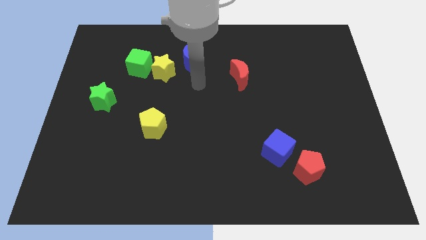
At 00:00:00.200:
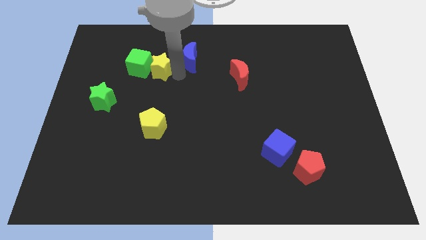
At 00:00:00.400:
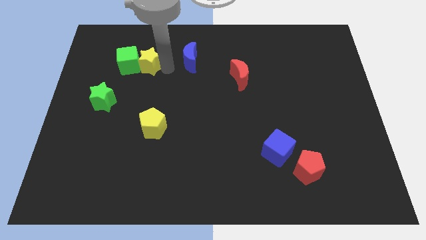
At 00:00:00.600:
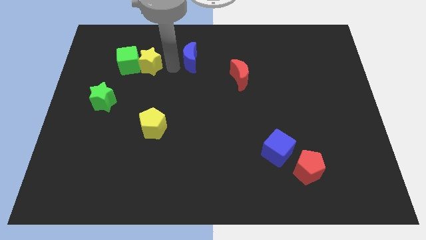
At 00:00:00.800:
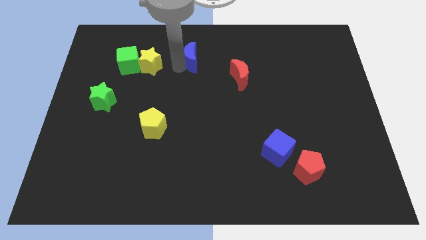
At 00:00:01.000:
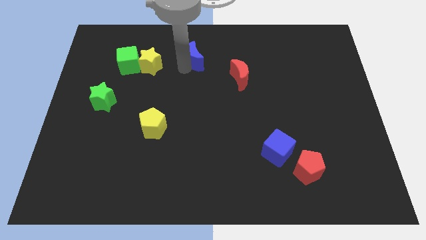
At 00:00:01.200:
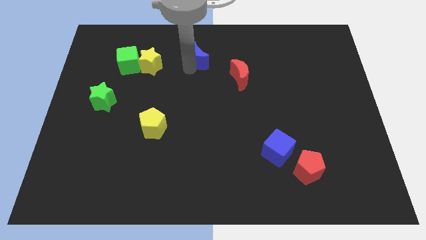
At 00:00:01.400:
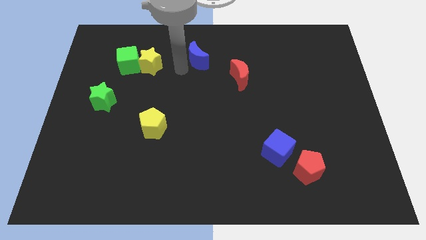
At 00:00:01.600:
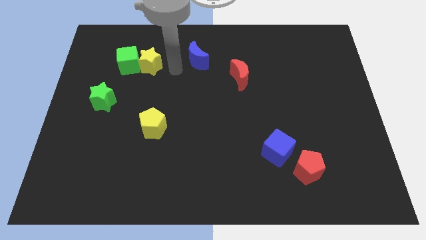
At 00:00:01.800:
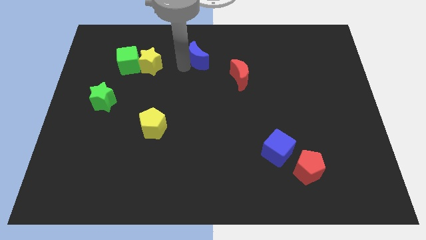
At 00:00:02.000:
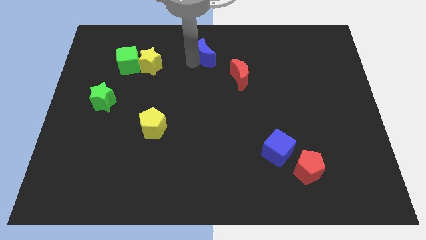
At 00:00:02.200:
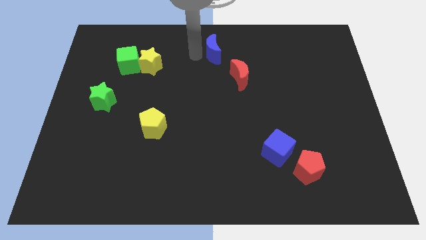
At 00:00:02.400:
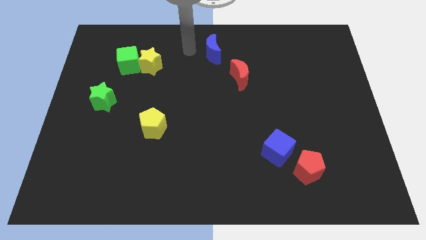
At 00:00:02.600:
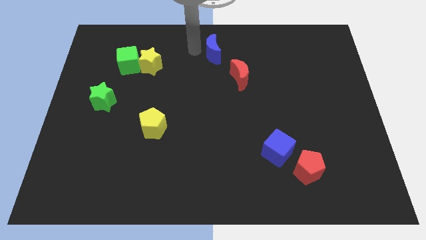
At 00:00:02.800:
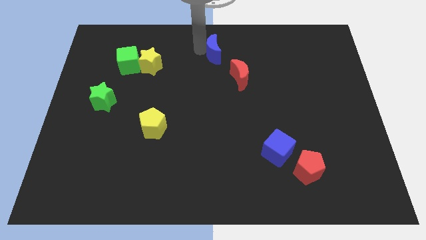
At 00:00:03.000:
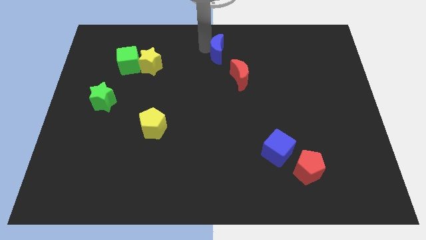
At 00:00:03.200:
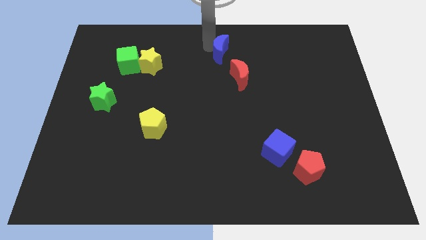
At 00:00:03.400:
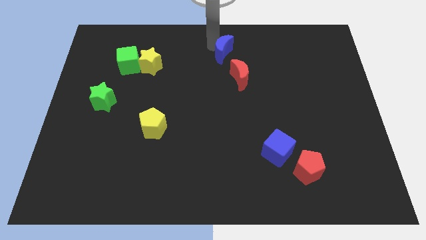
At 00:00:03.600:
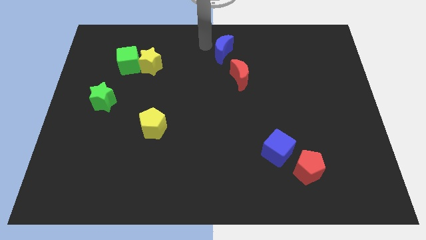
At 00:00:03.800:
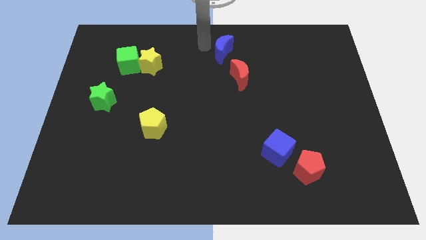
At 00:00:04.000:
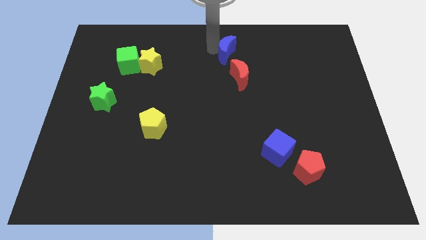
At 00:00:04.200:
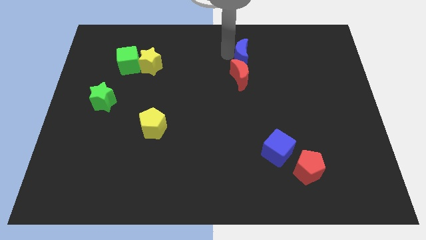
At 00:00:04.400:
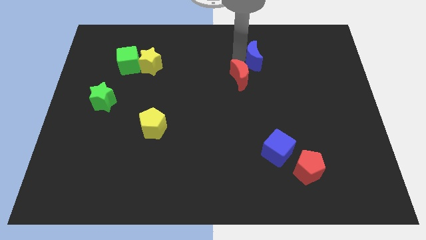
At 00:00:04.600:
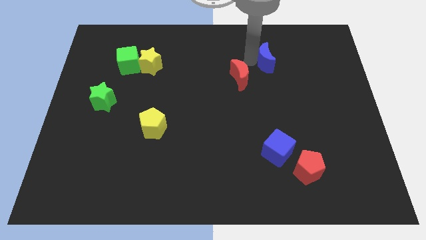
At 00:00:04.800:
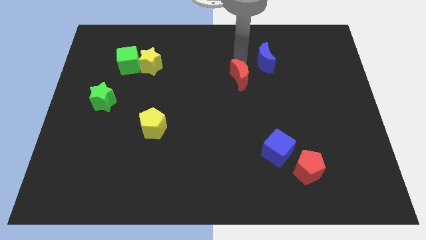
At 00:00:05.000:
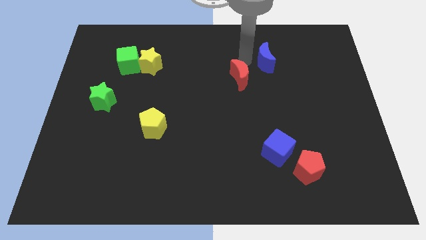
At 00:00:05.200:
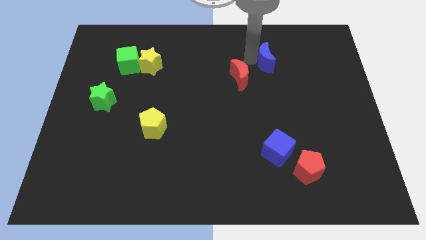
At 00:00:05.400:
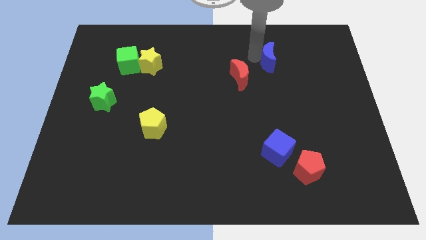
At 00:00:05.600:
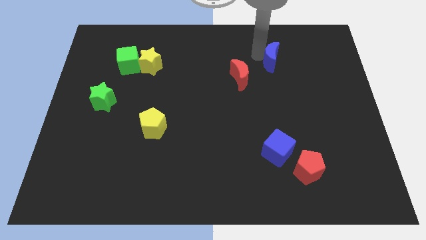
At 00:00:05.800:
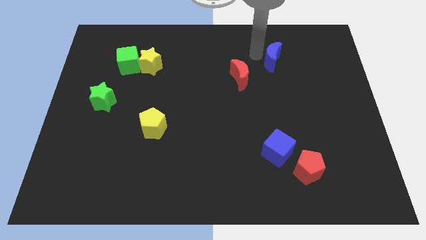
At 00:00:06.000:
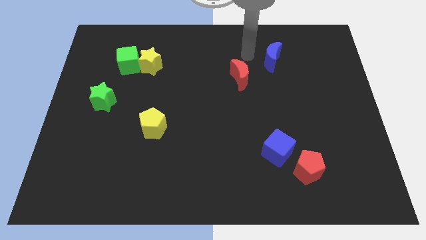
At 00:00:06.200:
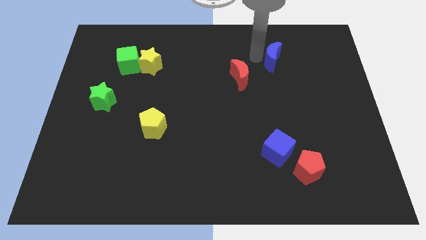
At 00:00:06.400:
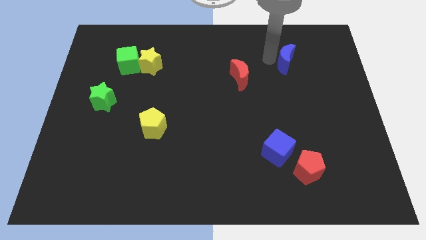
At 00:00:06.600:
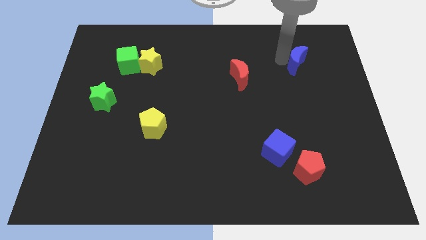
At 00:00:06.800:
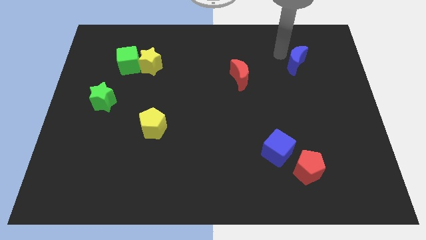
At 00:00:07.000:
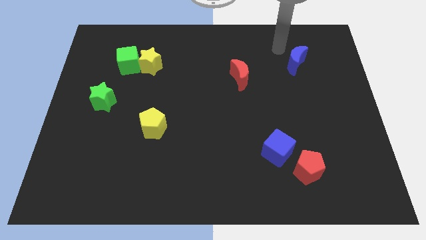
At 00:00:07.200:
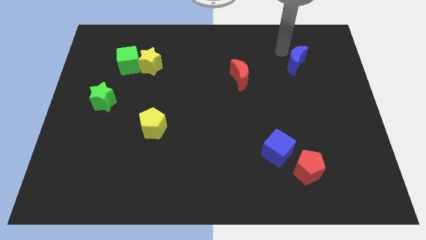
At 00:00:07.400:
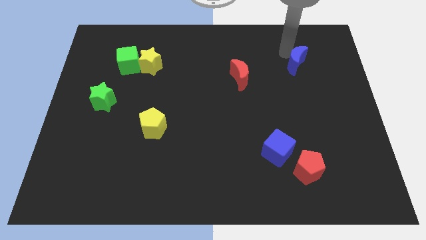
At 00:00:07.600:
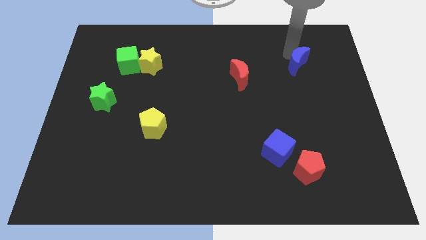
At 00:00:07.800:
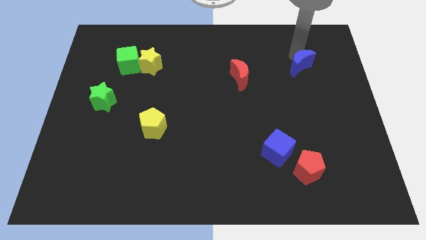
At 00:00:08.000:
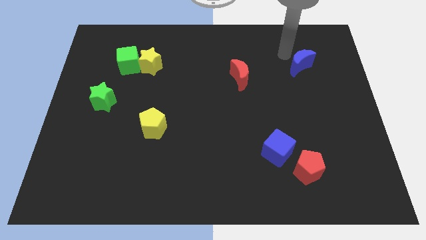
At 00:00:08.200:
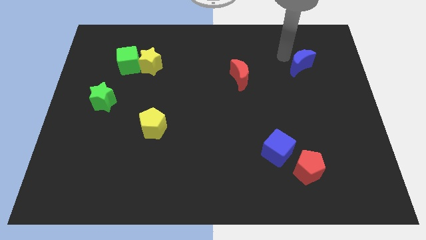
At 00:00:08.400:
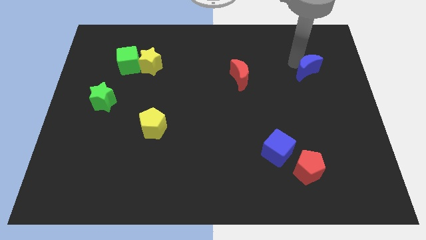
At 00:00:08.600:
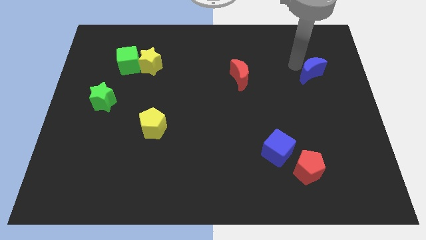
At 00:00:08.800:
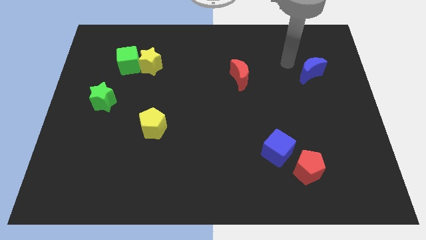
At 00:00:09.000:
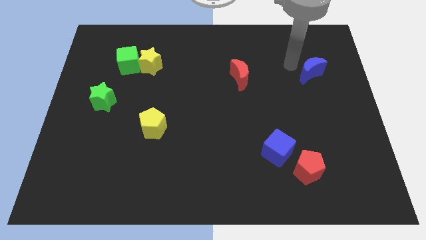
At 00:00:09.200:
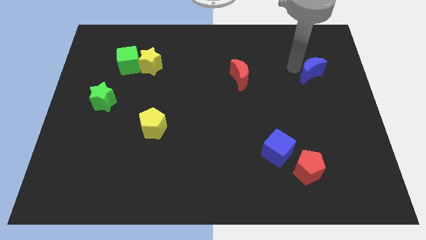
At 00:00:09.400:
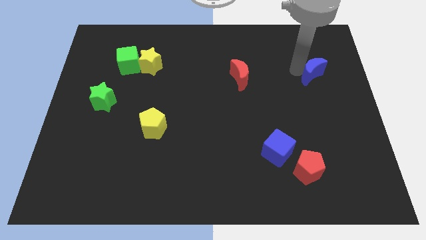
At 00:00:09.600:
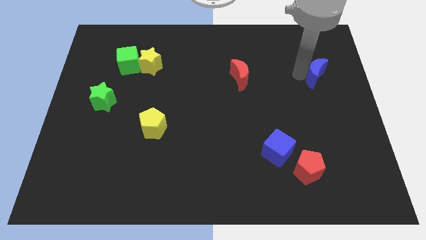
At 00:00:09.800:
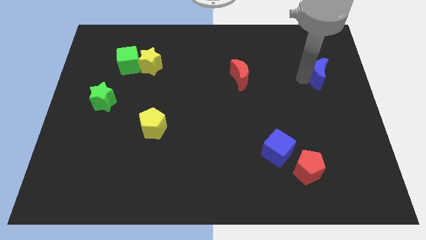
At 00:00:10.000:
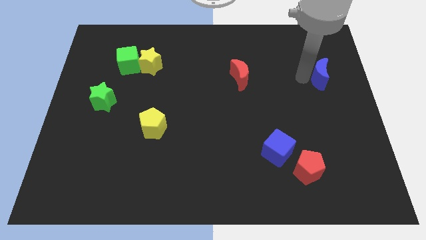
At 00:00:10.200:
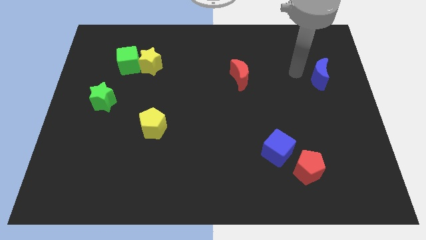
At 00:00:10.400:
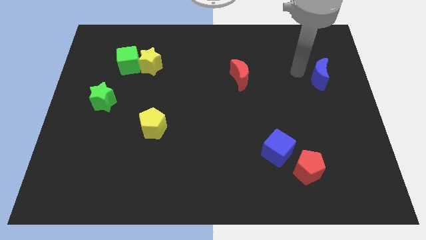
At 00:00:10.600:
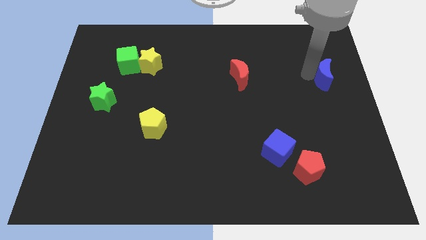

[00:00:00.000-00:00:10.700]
push the blue moon to the center right

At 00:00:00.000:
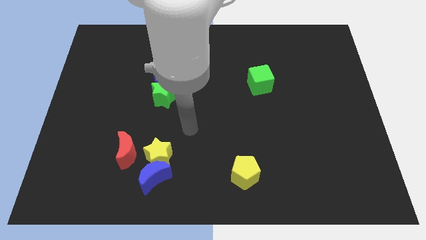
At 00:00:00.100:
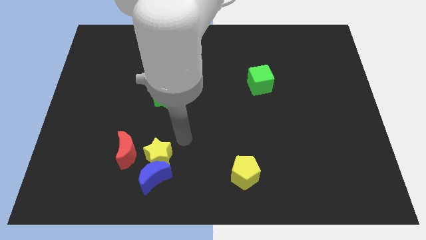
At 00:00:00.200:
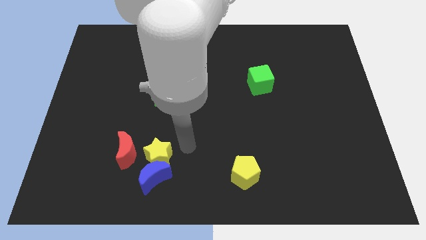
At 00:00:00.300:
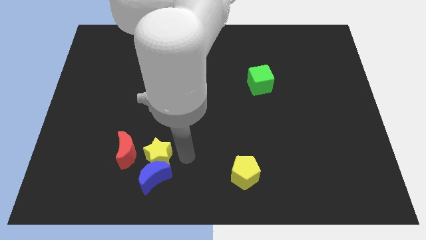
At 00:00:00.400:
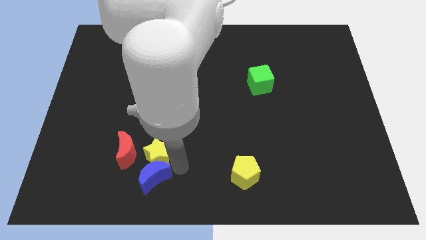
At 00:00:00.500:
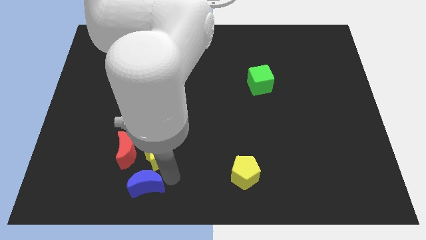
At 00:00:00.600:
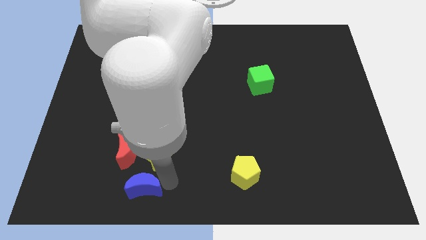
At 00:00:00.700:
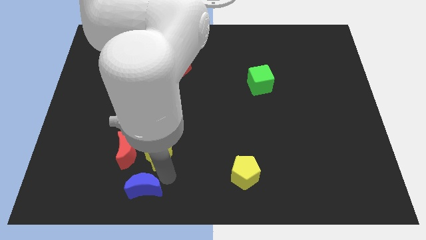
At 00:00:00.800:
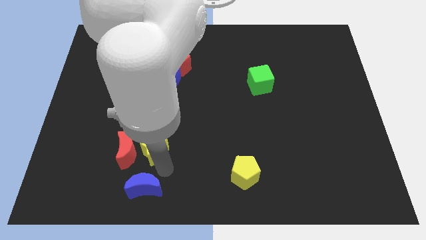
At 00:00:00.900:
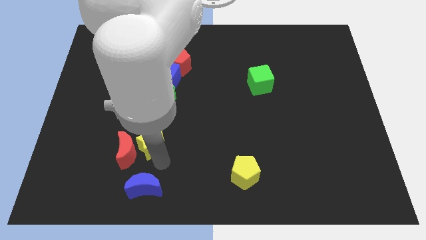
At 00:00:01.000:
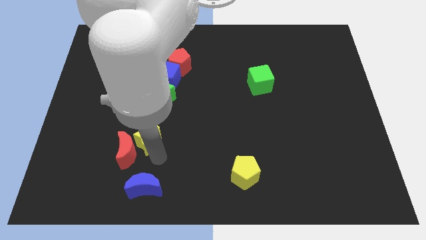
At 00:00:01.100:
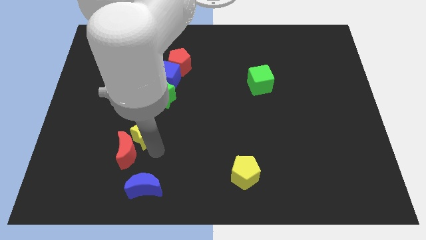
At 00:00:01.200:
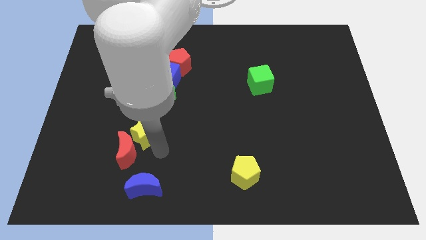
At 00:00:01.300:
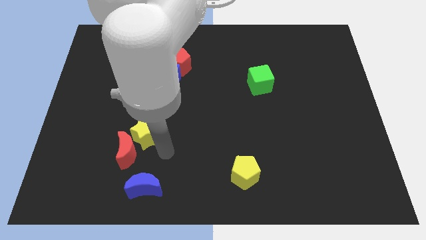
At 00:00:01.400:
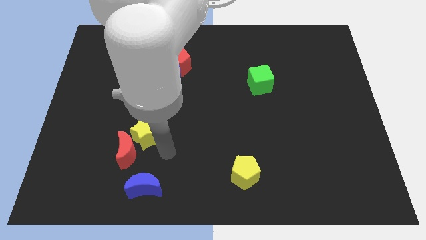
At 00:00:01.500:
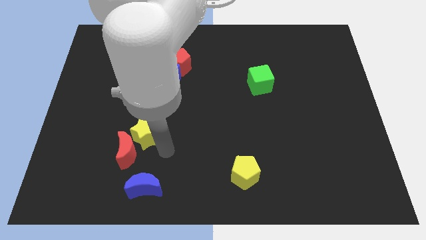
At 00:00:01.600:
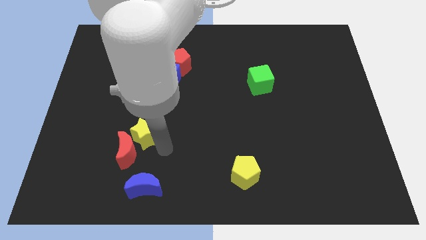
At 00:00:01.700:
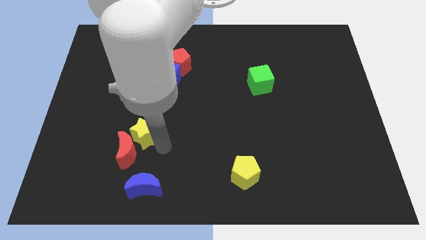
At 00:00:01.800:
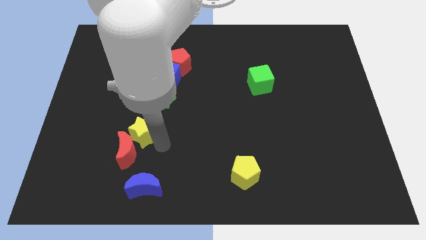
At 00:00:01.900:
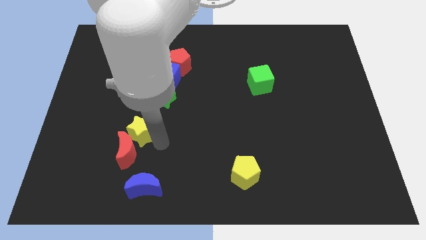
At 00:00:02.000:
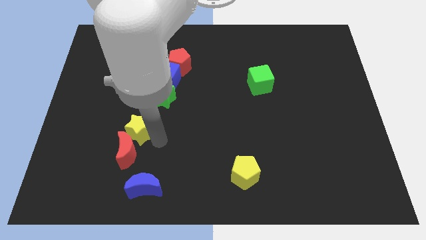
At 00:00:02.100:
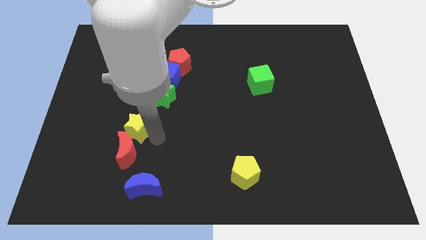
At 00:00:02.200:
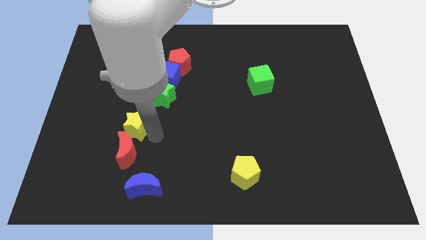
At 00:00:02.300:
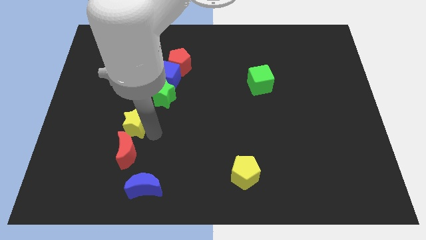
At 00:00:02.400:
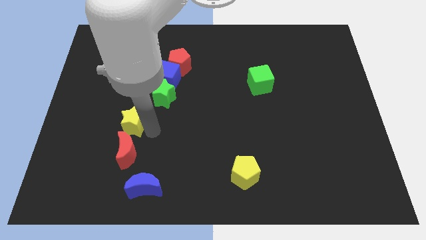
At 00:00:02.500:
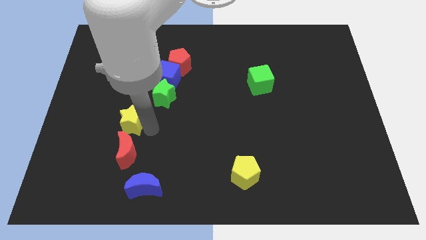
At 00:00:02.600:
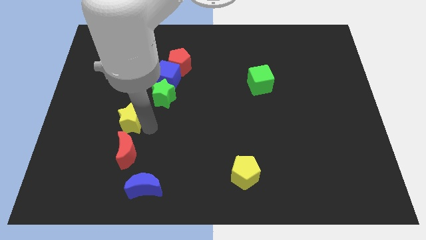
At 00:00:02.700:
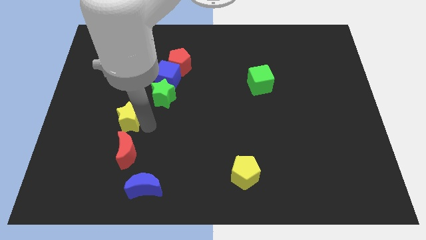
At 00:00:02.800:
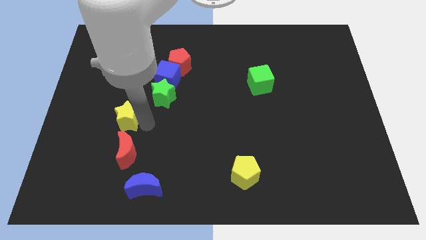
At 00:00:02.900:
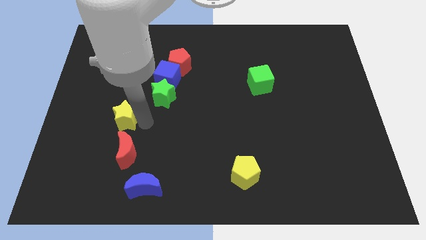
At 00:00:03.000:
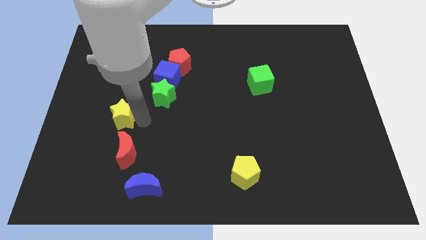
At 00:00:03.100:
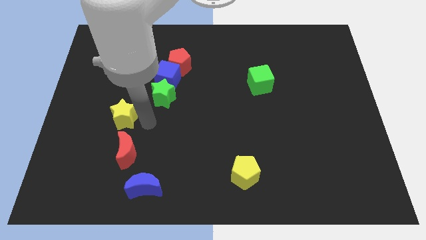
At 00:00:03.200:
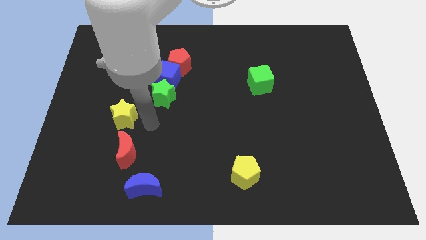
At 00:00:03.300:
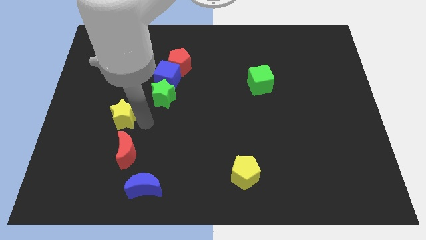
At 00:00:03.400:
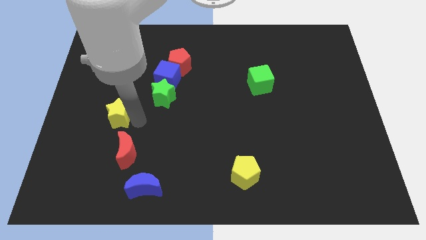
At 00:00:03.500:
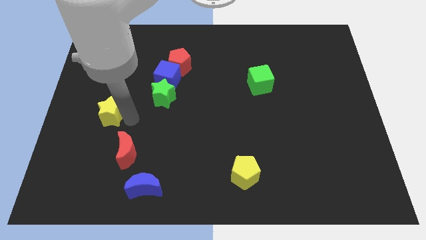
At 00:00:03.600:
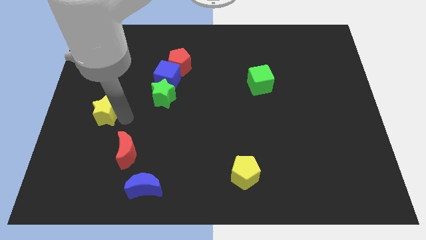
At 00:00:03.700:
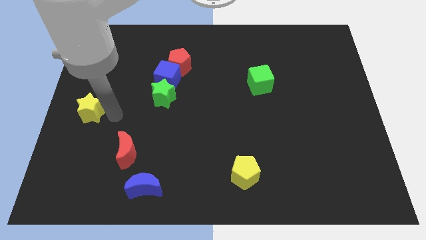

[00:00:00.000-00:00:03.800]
move the yellow star to the left side
